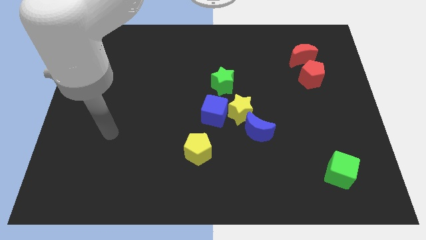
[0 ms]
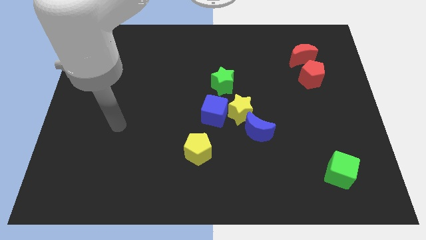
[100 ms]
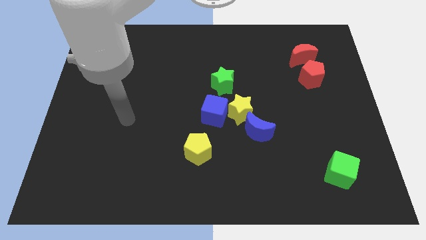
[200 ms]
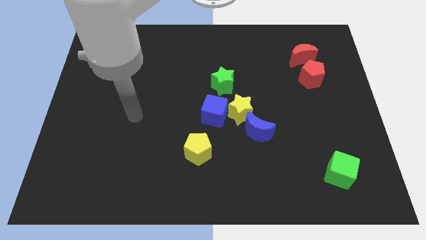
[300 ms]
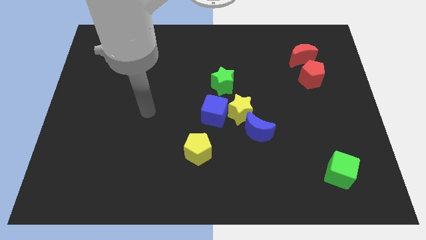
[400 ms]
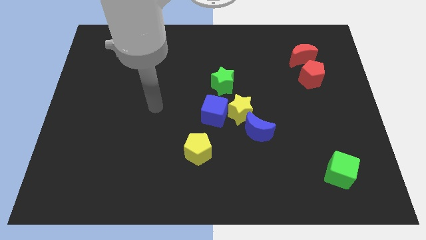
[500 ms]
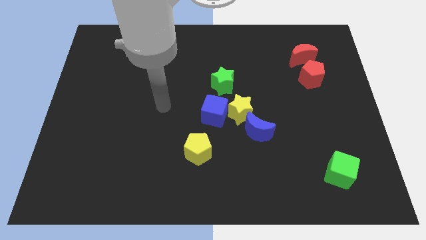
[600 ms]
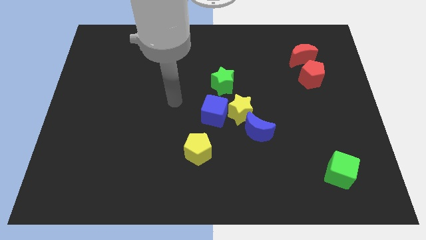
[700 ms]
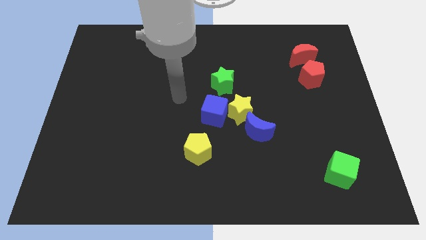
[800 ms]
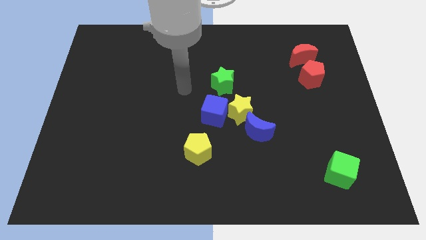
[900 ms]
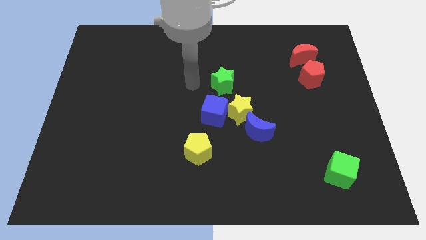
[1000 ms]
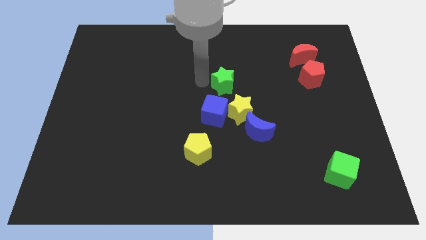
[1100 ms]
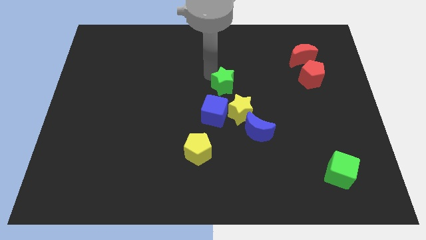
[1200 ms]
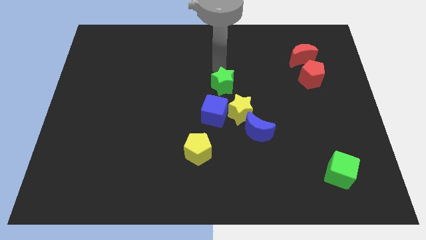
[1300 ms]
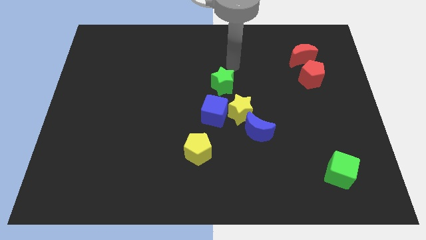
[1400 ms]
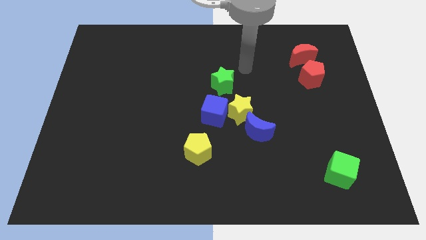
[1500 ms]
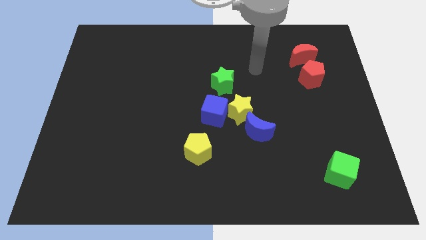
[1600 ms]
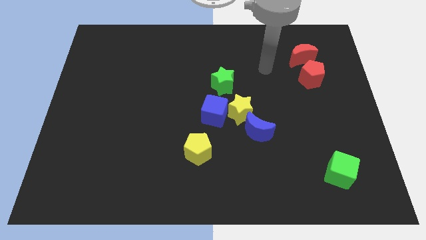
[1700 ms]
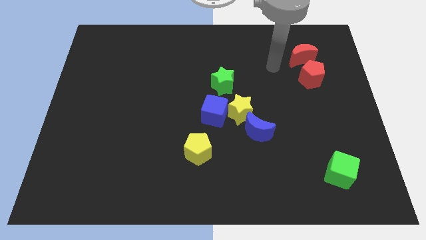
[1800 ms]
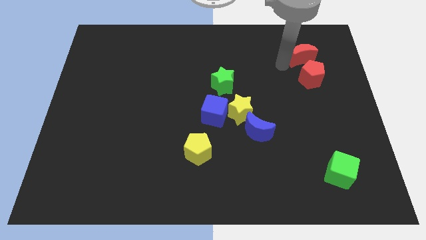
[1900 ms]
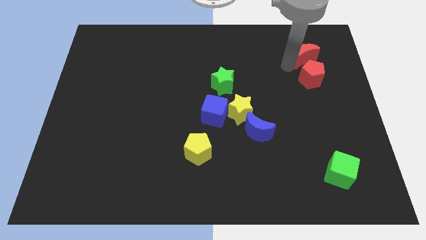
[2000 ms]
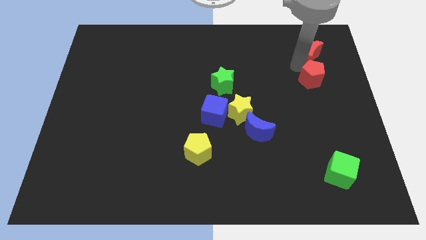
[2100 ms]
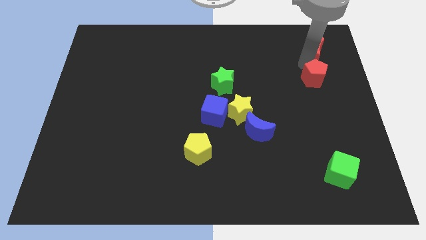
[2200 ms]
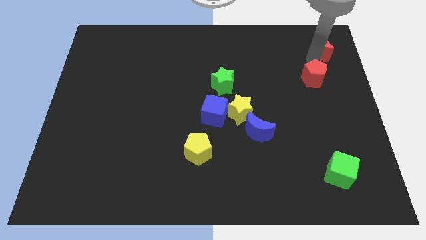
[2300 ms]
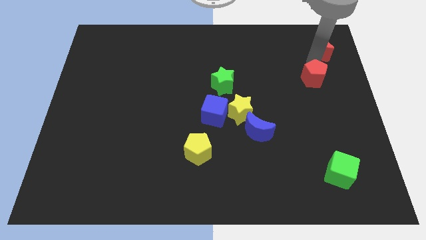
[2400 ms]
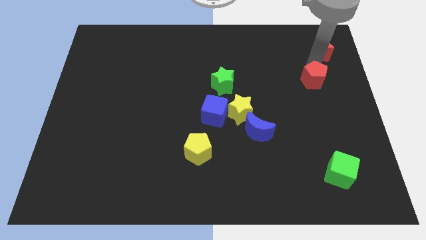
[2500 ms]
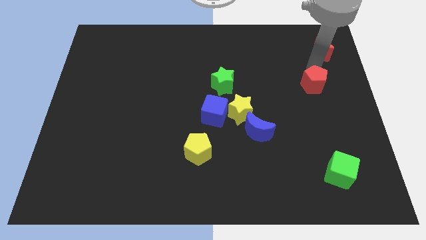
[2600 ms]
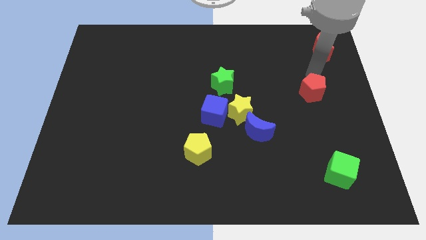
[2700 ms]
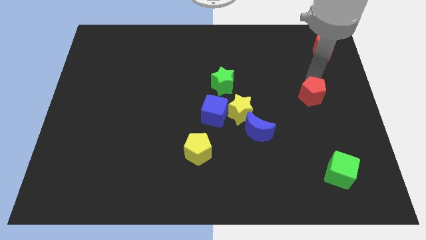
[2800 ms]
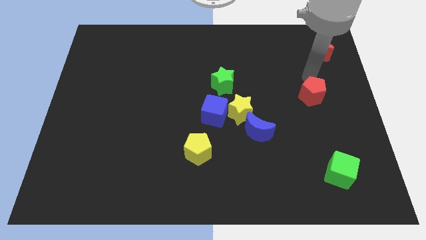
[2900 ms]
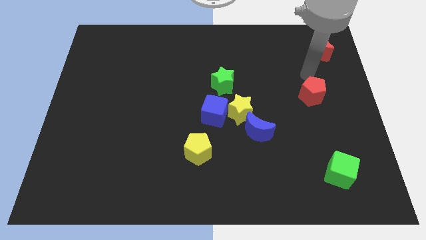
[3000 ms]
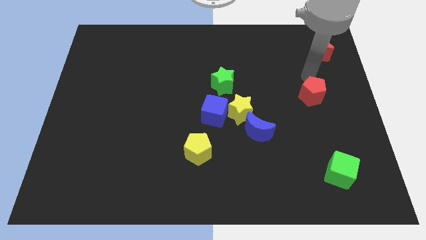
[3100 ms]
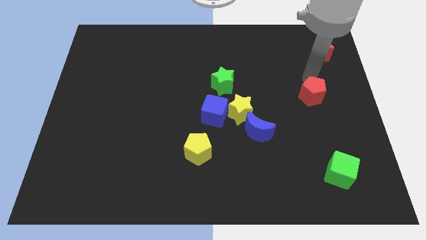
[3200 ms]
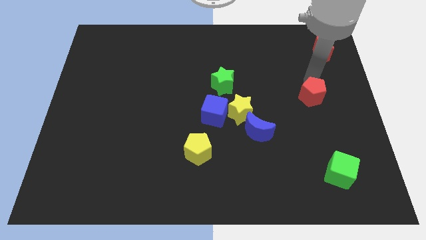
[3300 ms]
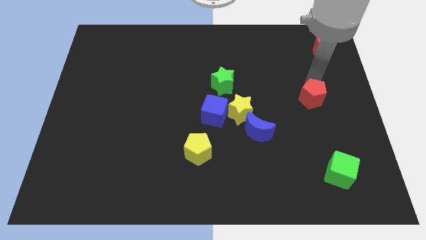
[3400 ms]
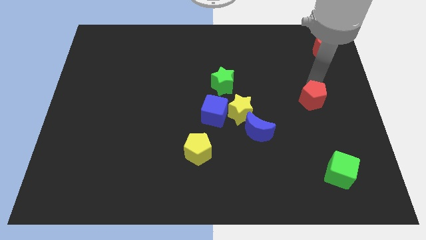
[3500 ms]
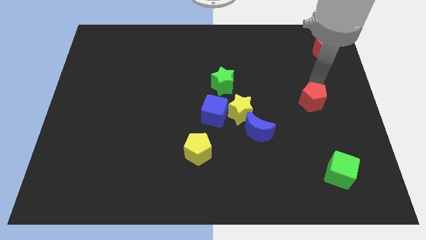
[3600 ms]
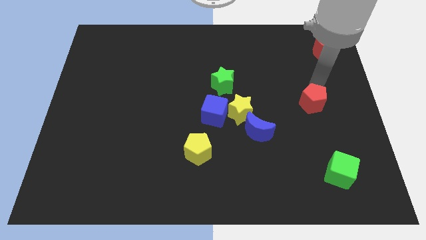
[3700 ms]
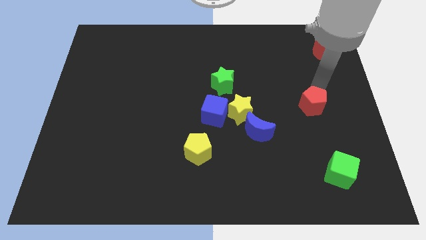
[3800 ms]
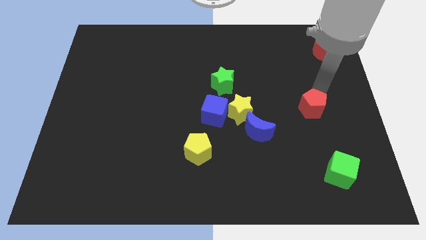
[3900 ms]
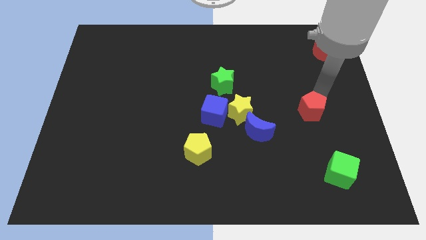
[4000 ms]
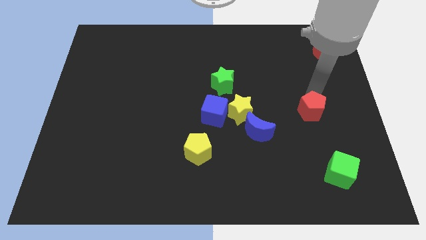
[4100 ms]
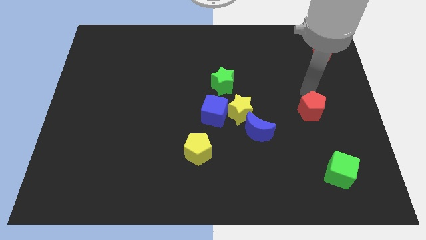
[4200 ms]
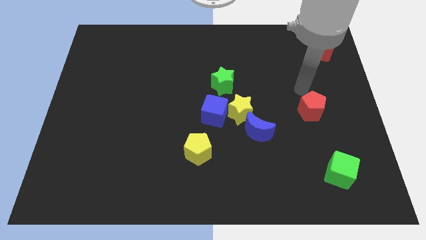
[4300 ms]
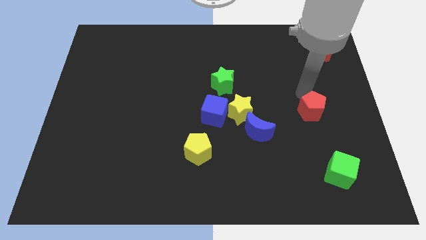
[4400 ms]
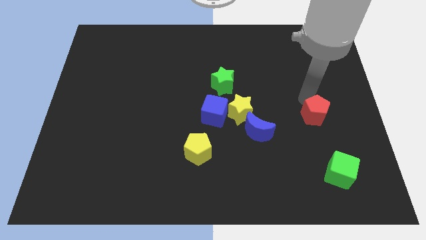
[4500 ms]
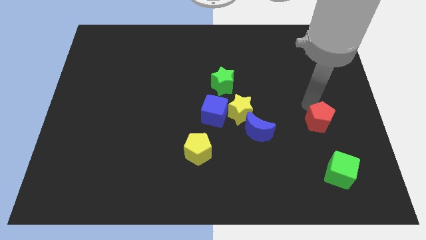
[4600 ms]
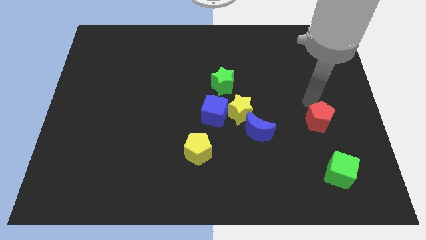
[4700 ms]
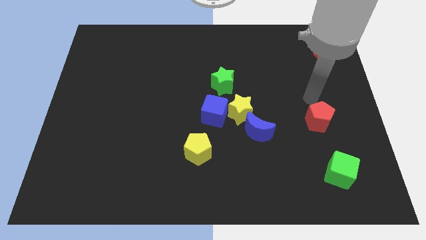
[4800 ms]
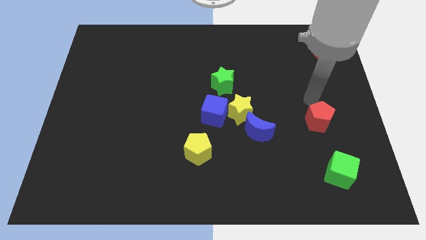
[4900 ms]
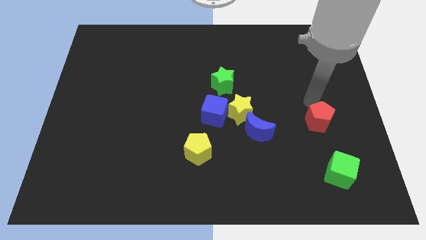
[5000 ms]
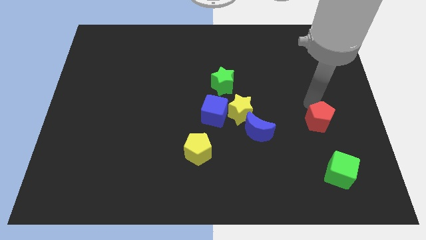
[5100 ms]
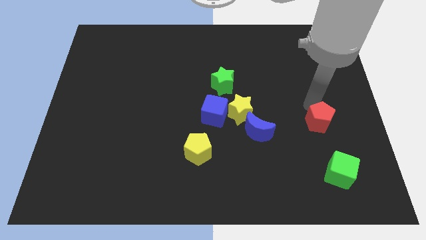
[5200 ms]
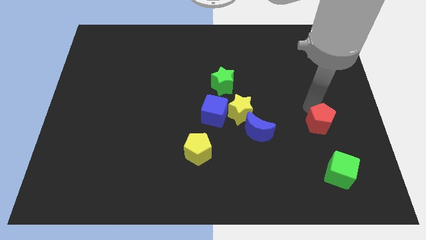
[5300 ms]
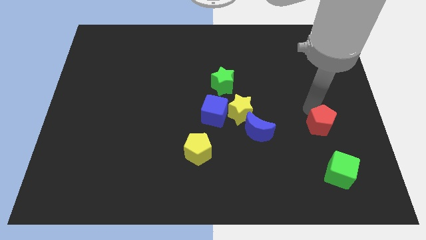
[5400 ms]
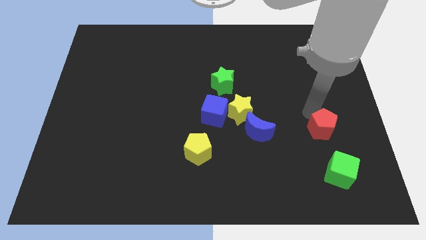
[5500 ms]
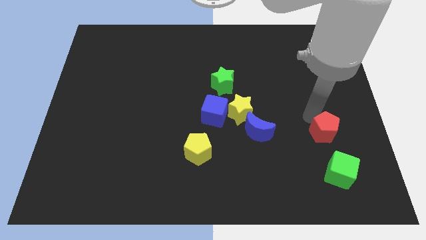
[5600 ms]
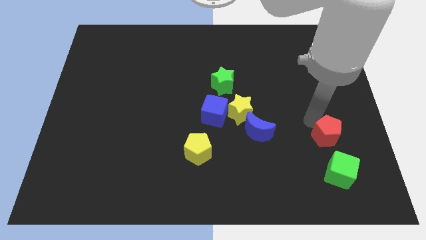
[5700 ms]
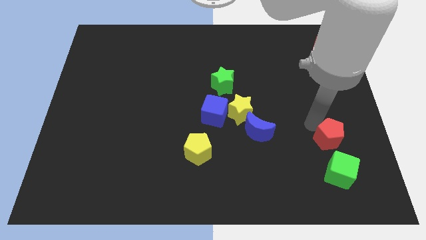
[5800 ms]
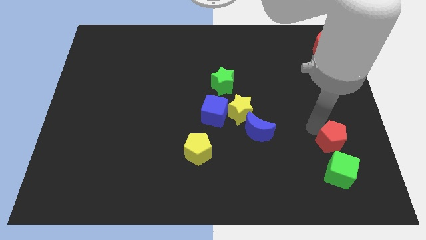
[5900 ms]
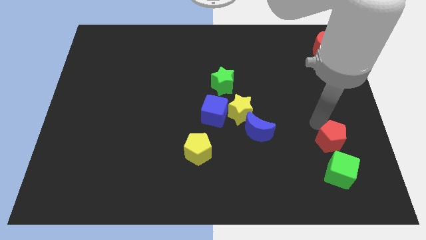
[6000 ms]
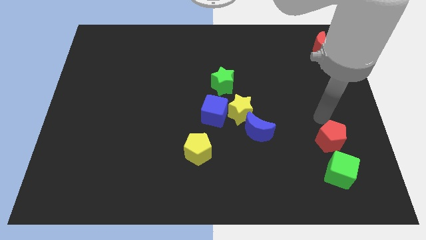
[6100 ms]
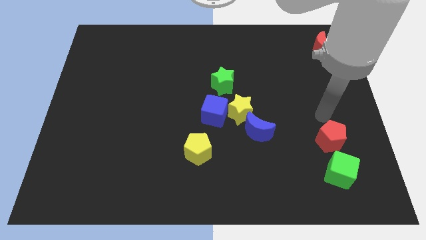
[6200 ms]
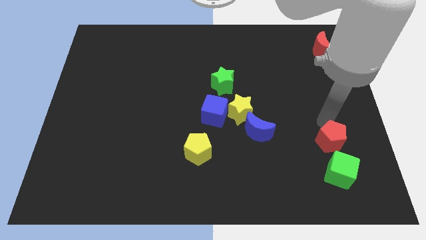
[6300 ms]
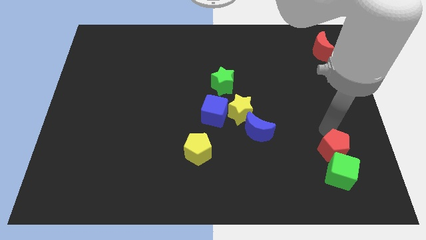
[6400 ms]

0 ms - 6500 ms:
put the red pentagon close to the green cube
